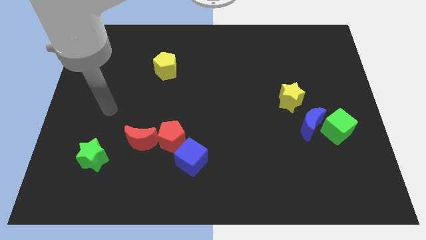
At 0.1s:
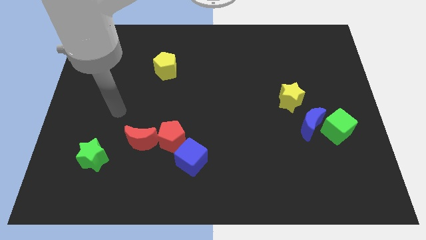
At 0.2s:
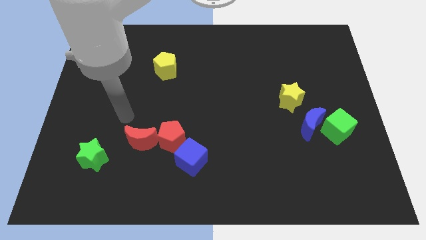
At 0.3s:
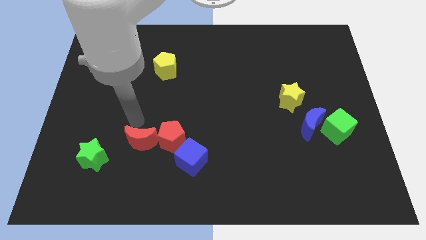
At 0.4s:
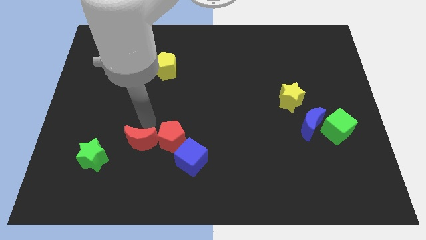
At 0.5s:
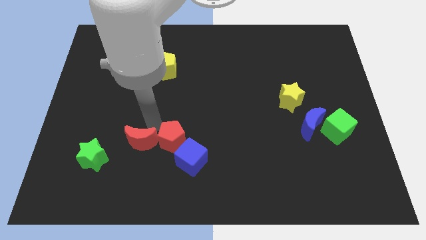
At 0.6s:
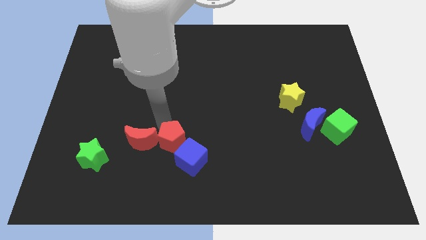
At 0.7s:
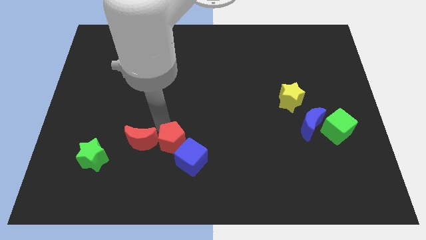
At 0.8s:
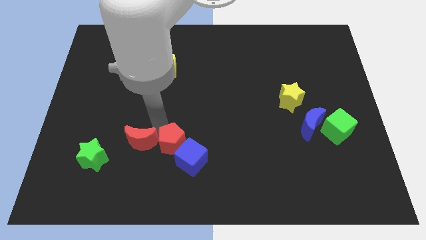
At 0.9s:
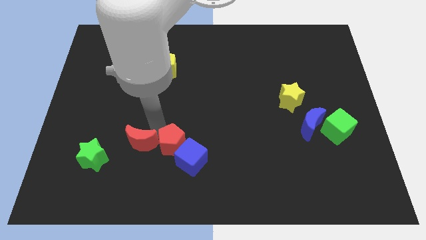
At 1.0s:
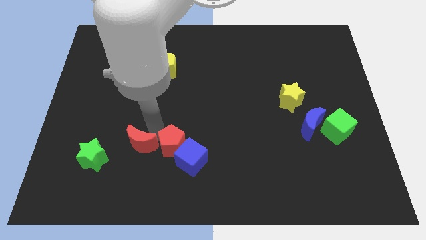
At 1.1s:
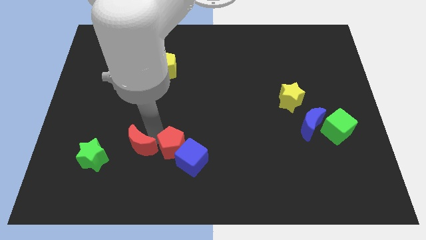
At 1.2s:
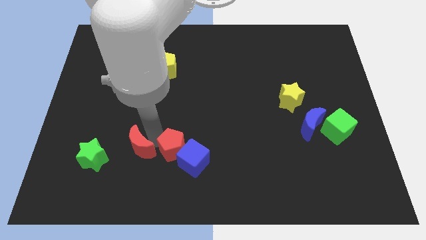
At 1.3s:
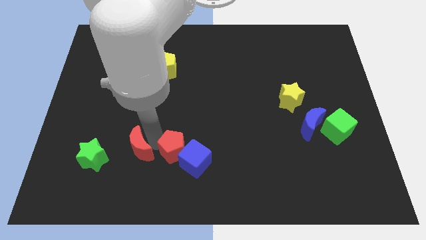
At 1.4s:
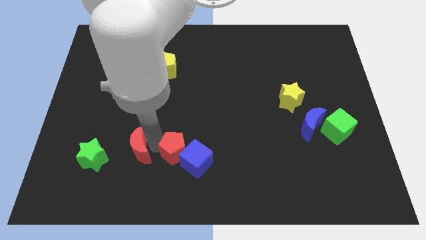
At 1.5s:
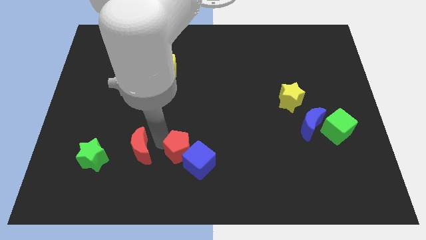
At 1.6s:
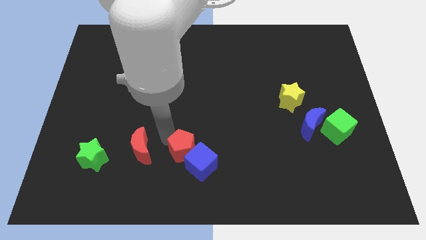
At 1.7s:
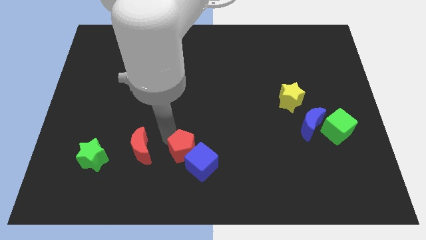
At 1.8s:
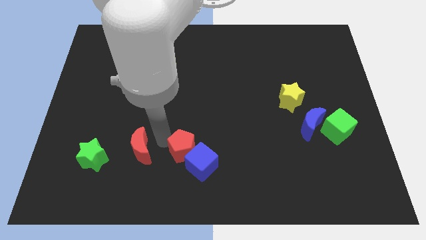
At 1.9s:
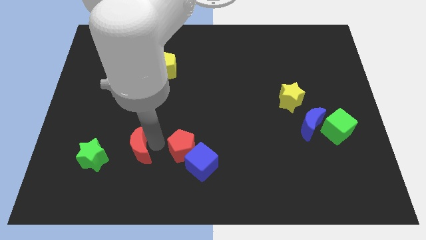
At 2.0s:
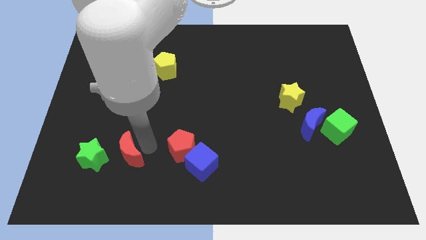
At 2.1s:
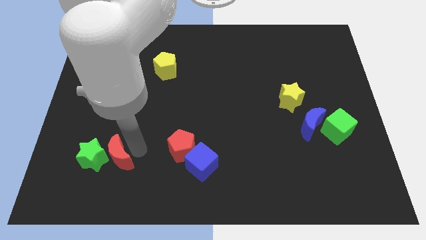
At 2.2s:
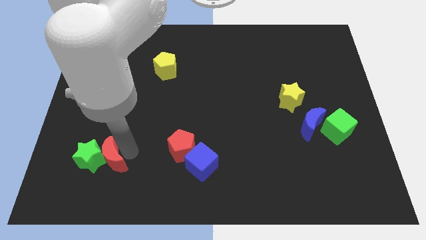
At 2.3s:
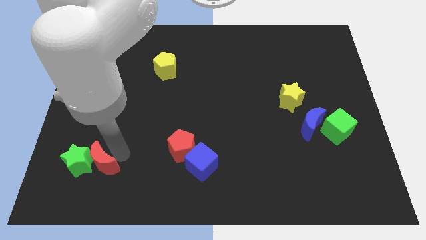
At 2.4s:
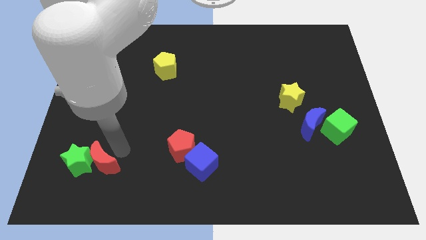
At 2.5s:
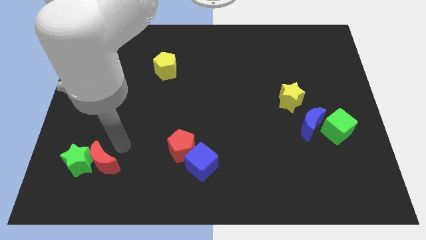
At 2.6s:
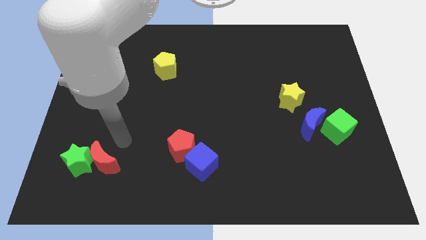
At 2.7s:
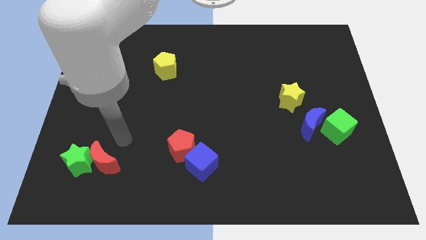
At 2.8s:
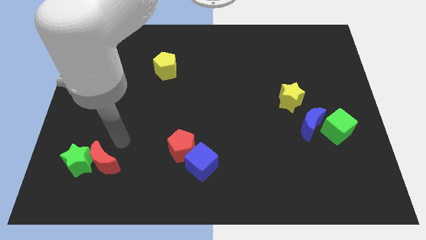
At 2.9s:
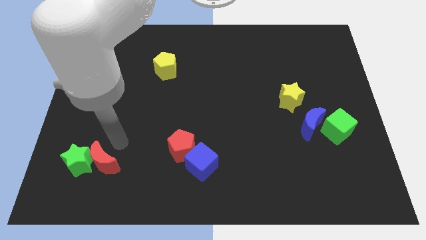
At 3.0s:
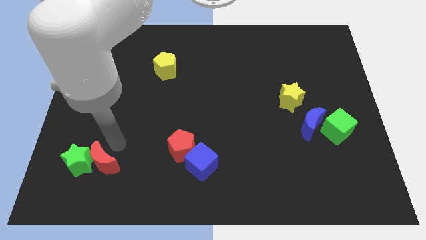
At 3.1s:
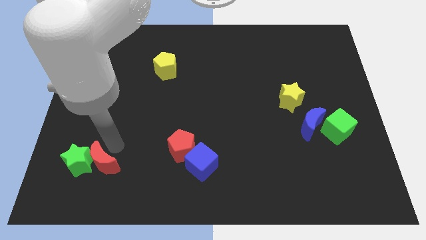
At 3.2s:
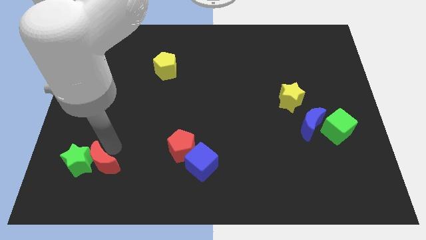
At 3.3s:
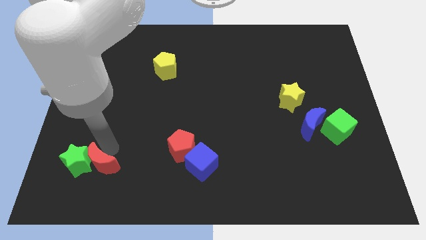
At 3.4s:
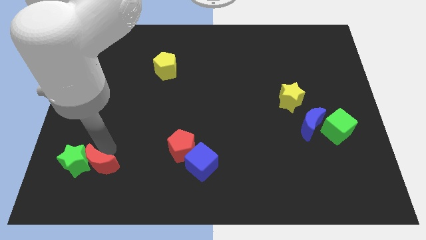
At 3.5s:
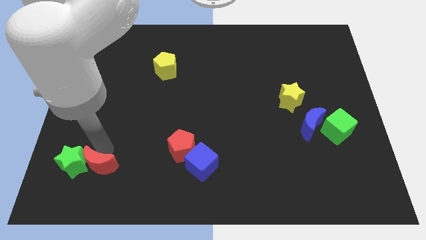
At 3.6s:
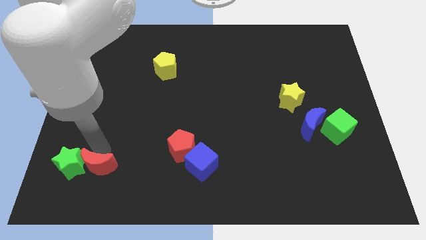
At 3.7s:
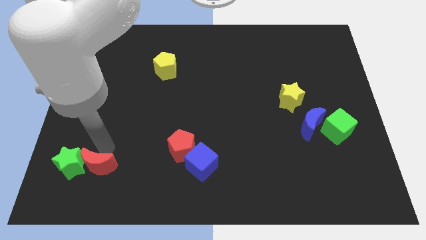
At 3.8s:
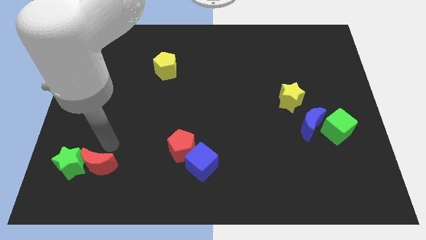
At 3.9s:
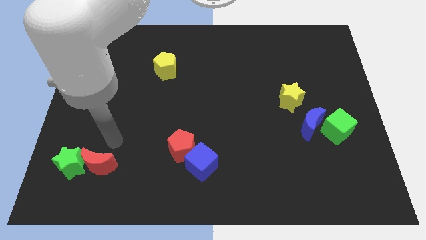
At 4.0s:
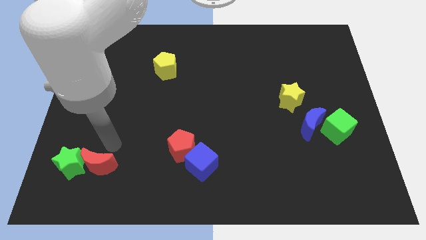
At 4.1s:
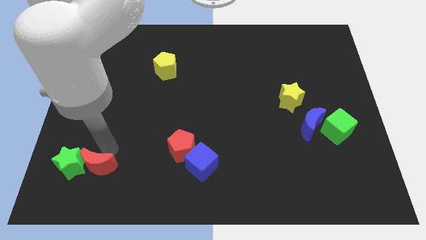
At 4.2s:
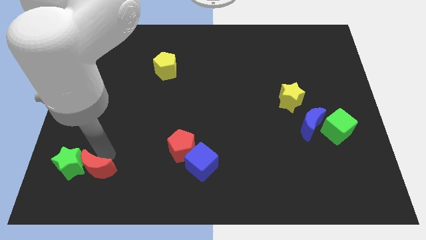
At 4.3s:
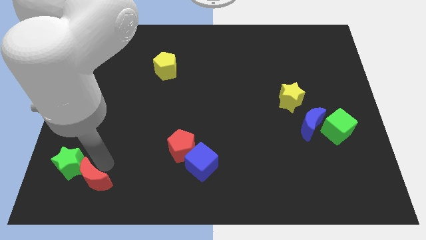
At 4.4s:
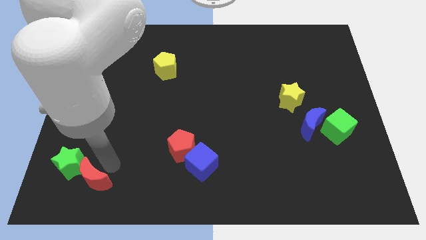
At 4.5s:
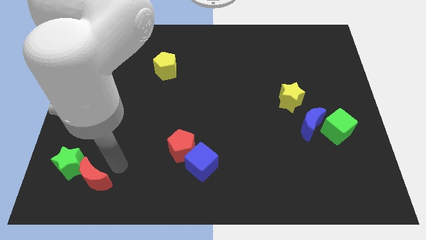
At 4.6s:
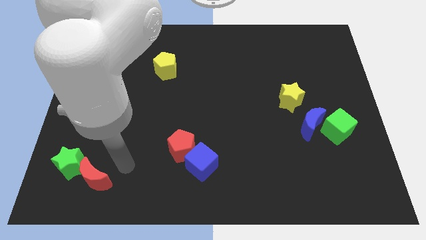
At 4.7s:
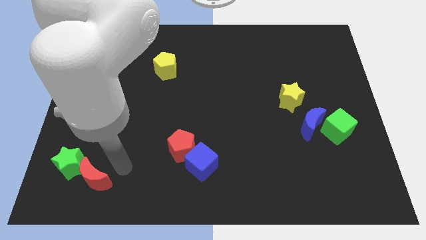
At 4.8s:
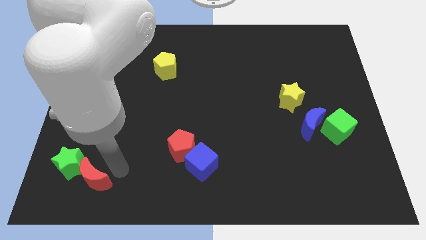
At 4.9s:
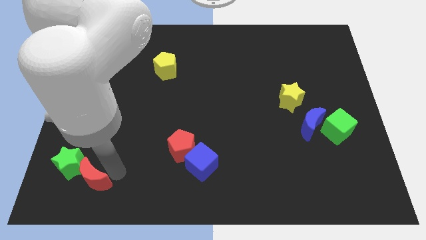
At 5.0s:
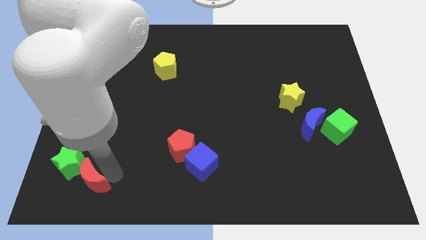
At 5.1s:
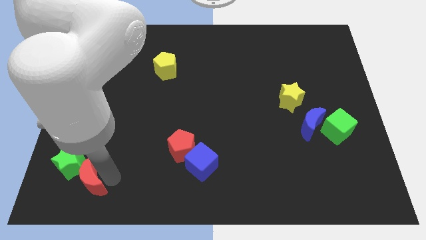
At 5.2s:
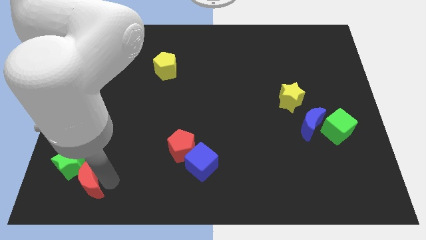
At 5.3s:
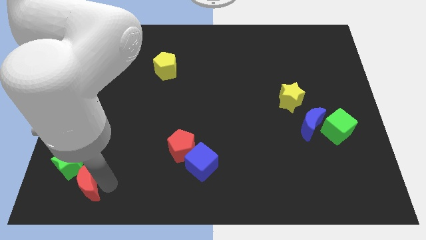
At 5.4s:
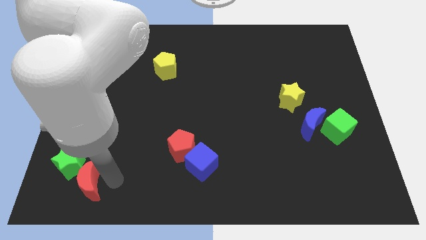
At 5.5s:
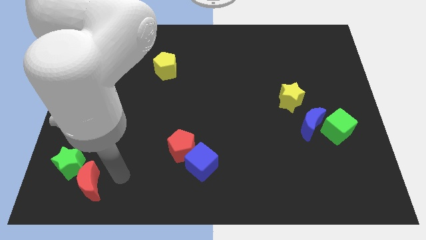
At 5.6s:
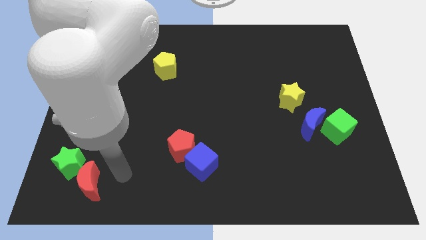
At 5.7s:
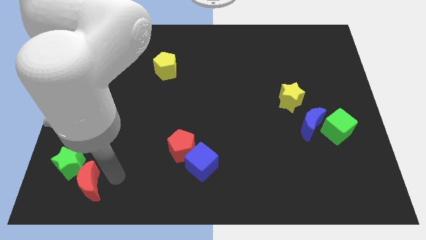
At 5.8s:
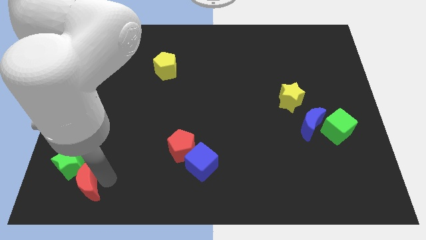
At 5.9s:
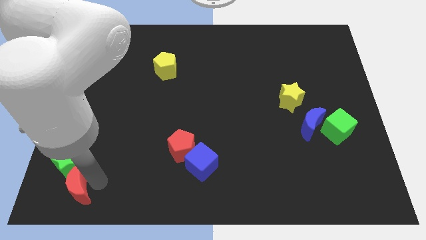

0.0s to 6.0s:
move the red moon to the bottom left of the board

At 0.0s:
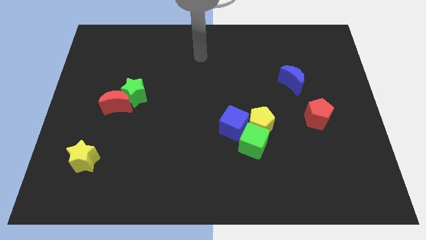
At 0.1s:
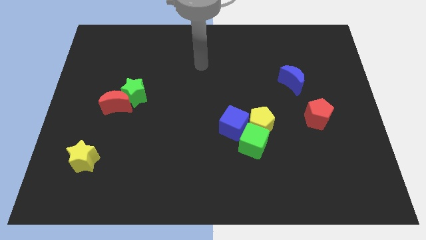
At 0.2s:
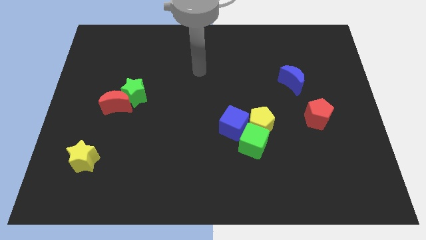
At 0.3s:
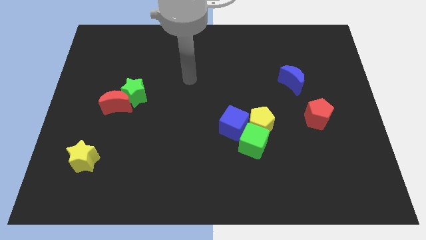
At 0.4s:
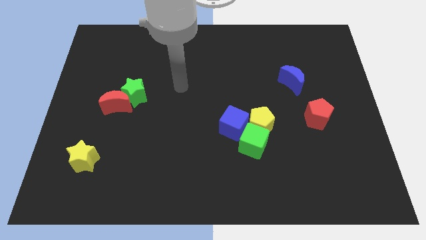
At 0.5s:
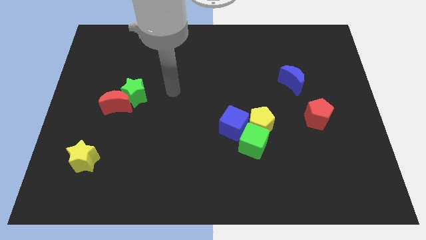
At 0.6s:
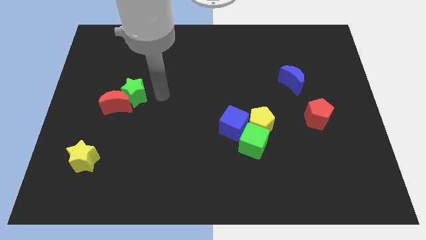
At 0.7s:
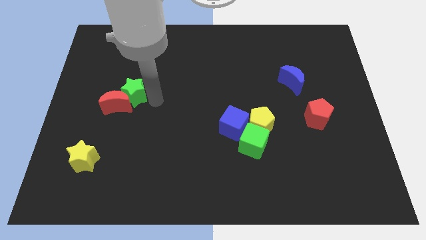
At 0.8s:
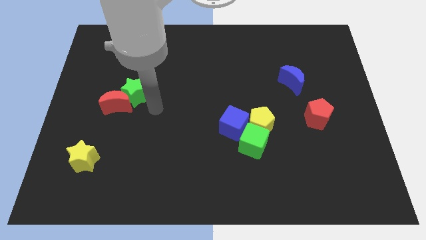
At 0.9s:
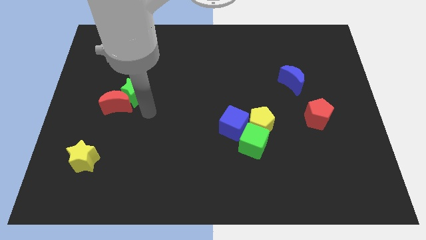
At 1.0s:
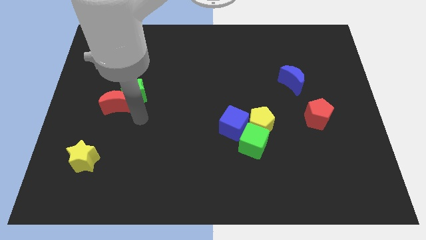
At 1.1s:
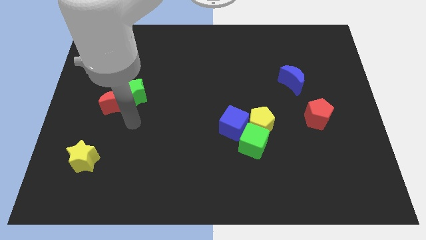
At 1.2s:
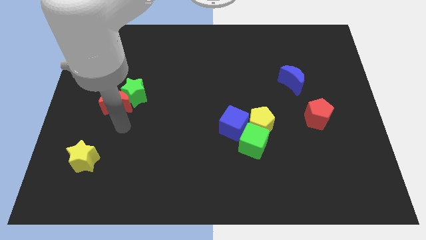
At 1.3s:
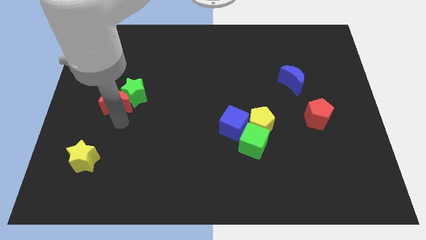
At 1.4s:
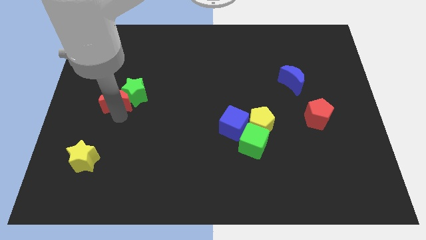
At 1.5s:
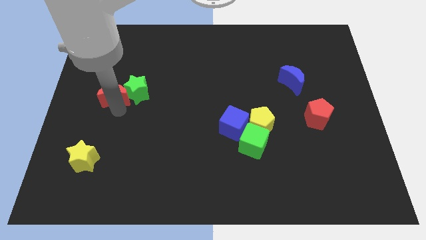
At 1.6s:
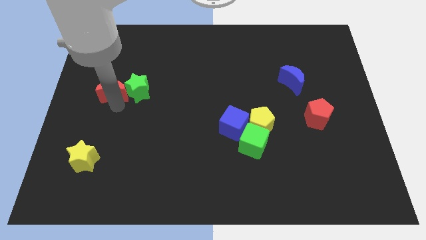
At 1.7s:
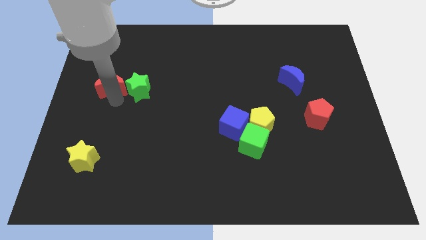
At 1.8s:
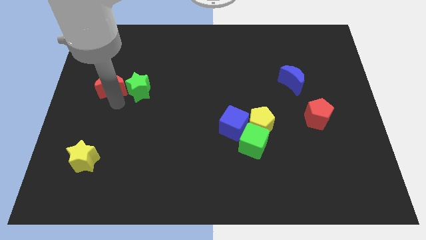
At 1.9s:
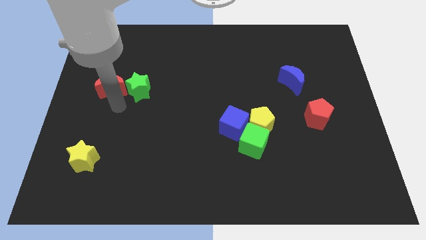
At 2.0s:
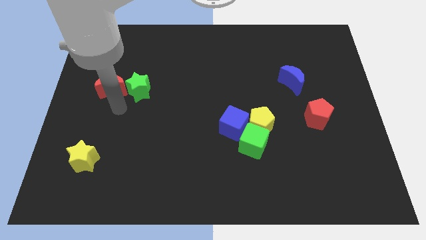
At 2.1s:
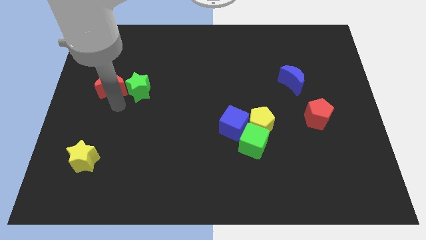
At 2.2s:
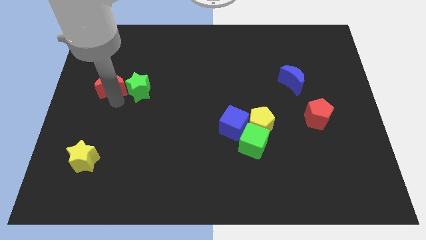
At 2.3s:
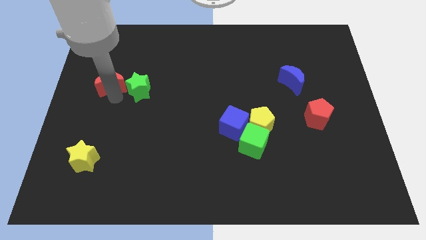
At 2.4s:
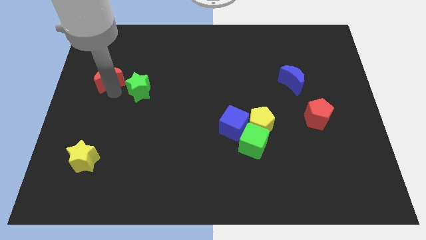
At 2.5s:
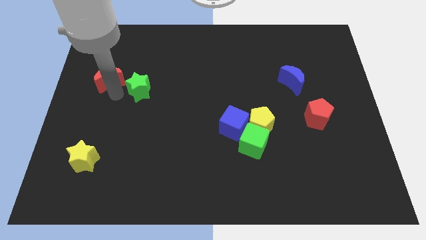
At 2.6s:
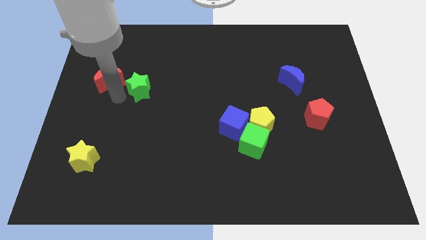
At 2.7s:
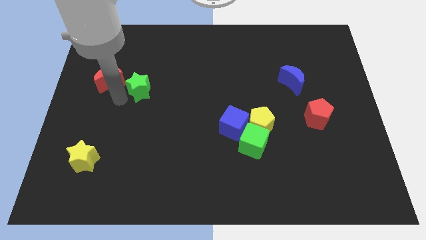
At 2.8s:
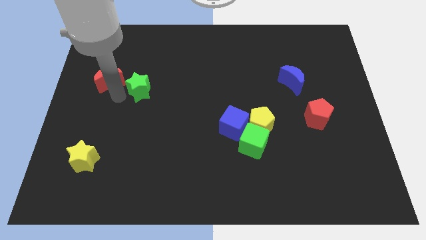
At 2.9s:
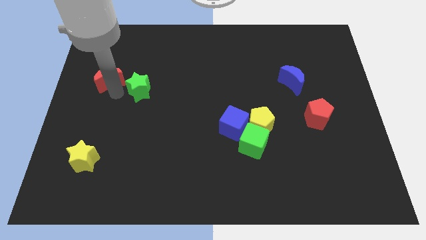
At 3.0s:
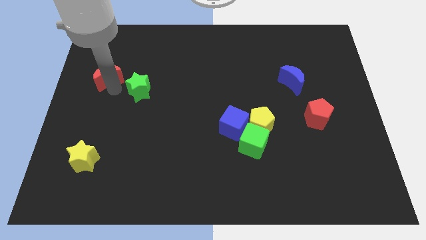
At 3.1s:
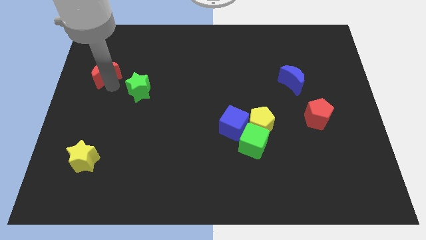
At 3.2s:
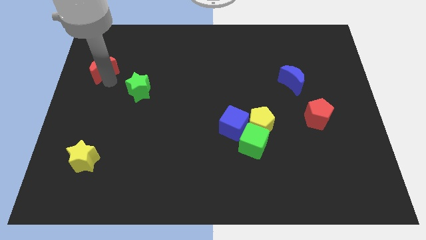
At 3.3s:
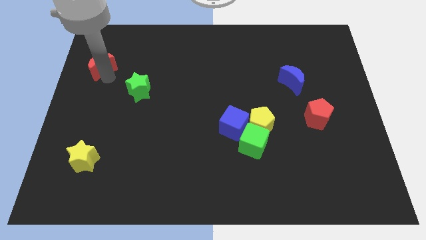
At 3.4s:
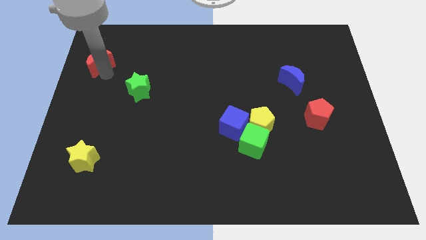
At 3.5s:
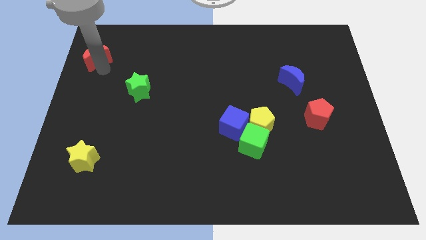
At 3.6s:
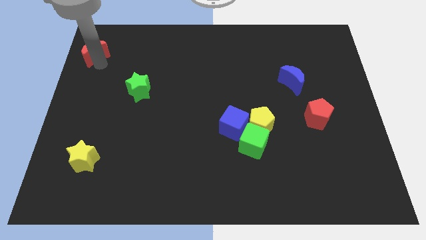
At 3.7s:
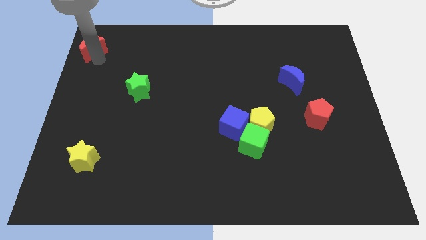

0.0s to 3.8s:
put the red moon to the upper left corner
